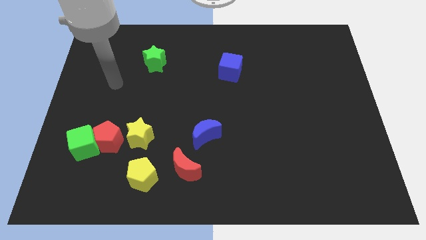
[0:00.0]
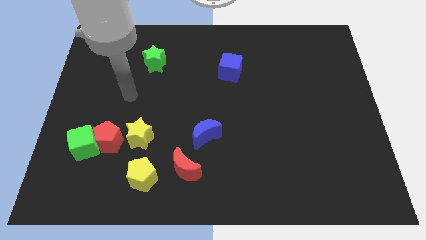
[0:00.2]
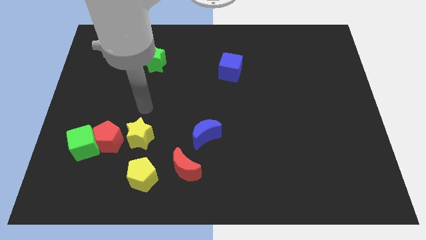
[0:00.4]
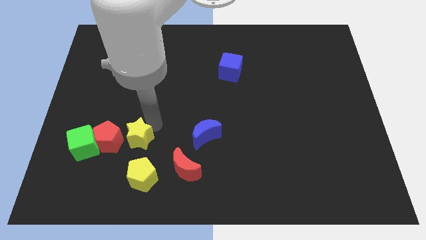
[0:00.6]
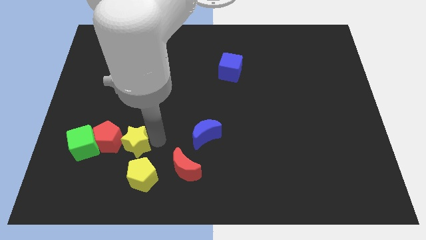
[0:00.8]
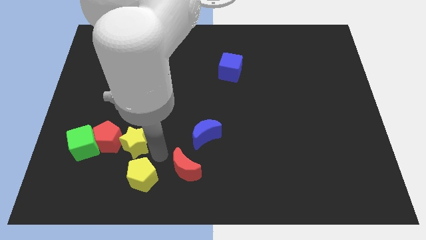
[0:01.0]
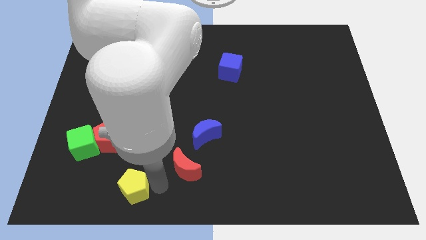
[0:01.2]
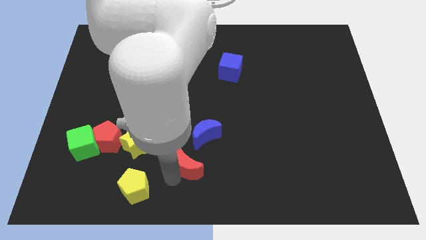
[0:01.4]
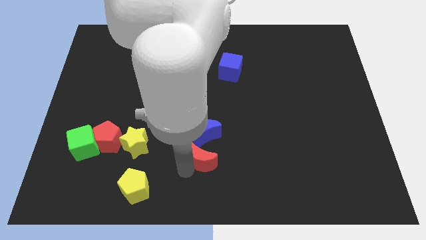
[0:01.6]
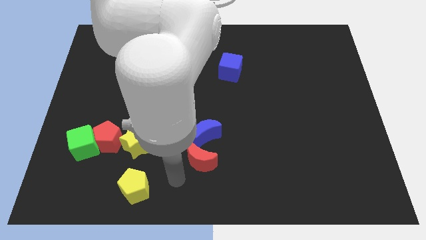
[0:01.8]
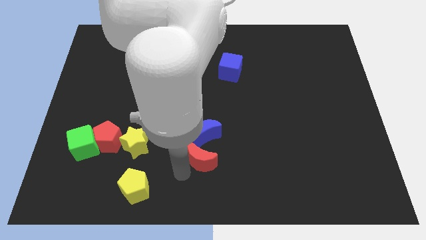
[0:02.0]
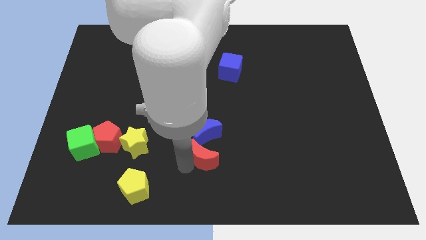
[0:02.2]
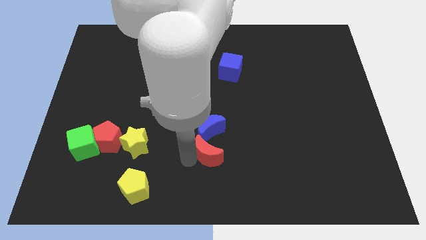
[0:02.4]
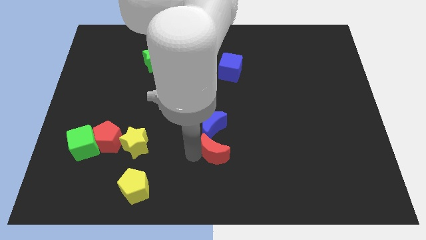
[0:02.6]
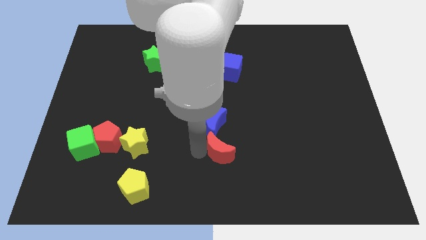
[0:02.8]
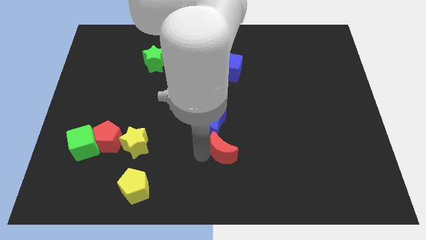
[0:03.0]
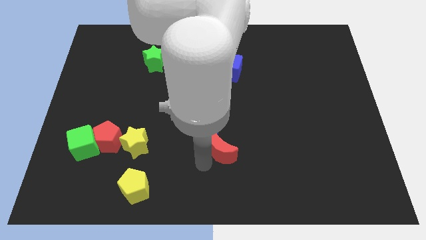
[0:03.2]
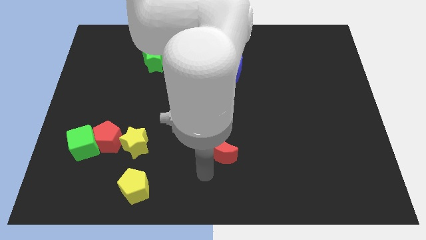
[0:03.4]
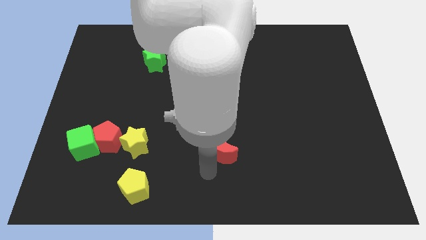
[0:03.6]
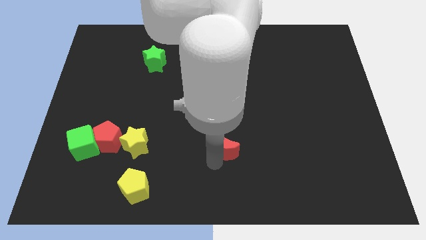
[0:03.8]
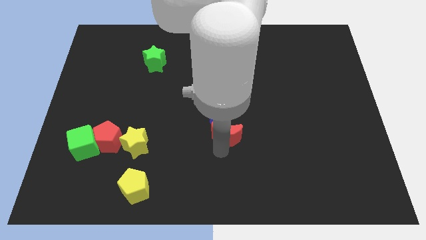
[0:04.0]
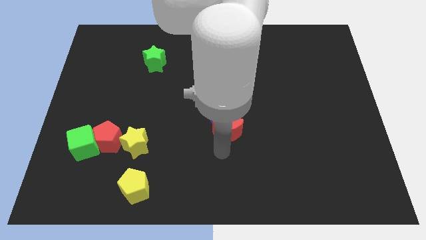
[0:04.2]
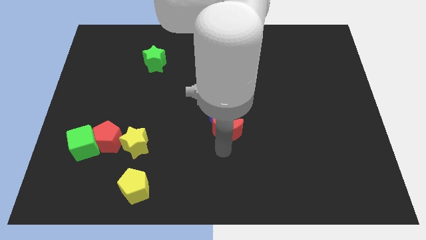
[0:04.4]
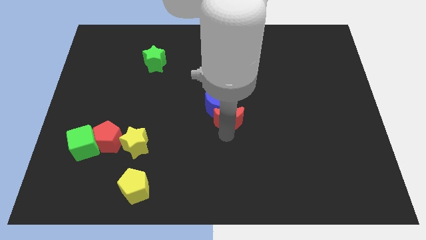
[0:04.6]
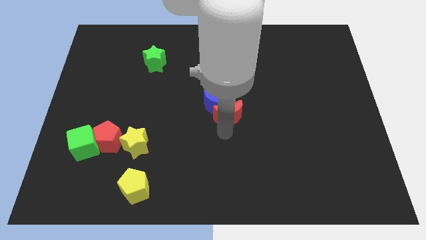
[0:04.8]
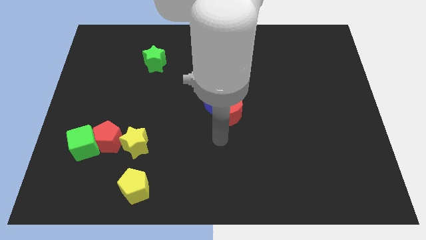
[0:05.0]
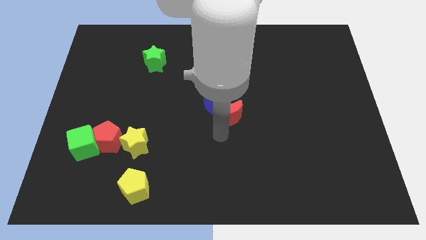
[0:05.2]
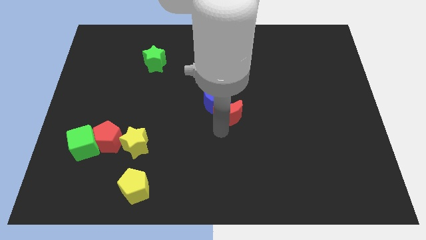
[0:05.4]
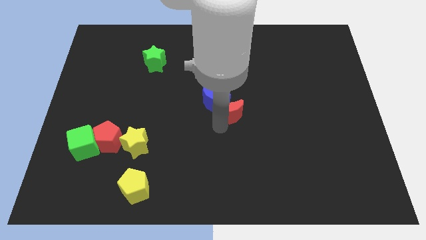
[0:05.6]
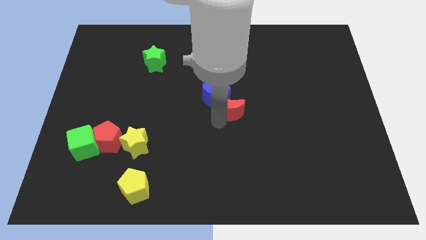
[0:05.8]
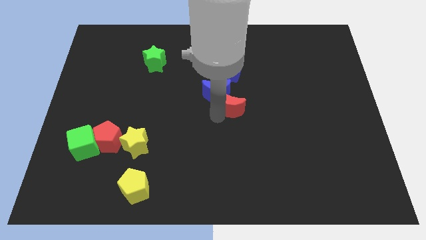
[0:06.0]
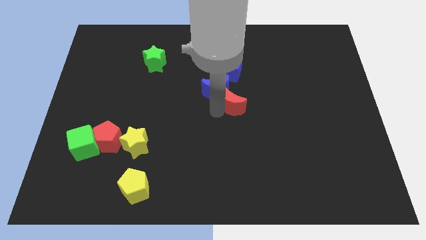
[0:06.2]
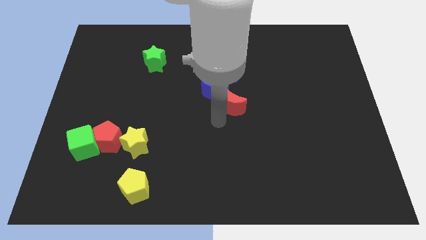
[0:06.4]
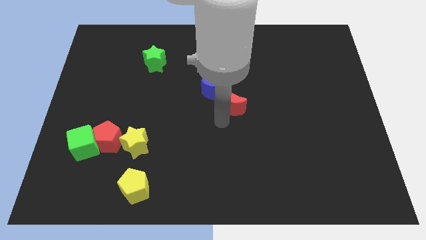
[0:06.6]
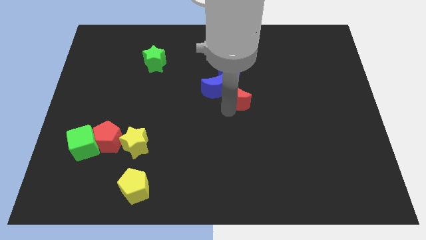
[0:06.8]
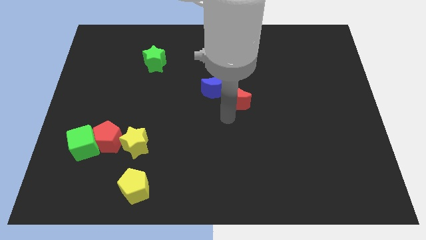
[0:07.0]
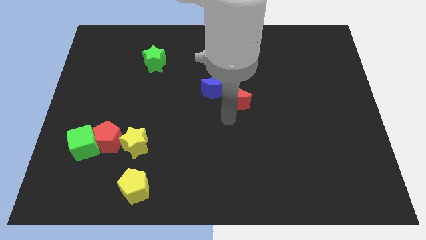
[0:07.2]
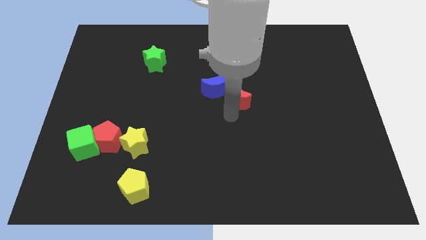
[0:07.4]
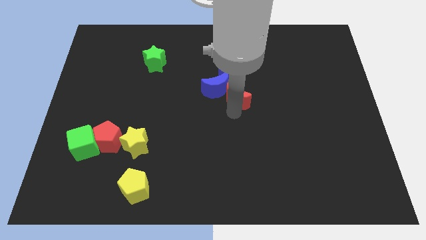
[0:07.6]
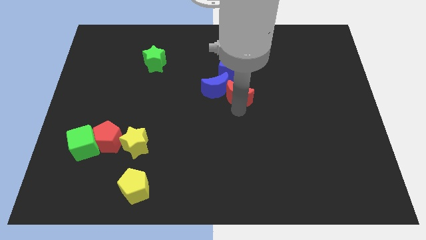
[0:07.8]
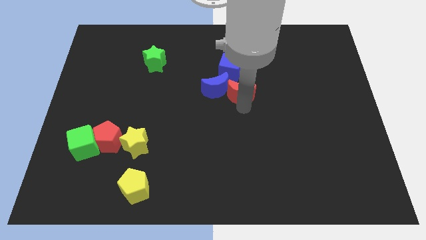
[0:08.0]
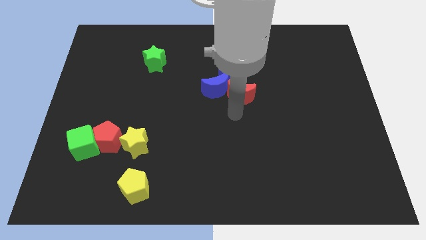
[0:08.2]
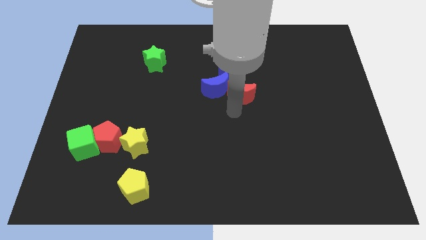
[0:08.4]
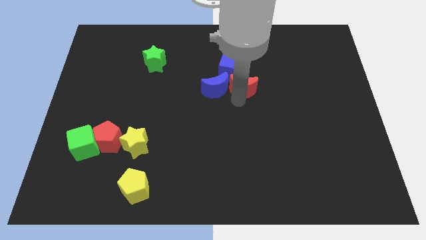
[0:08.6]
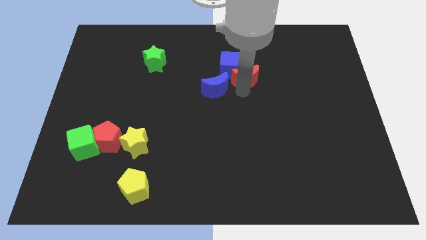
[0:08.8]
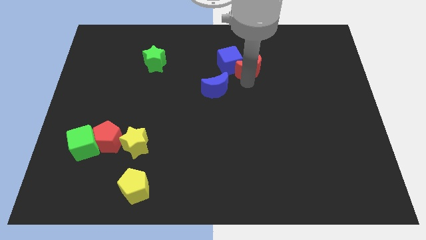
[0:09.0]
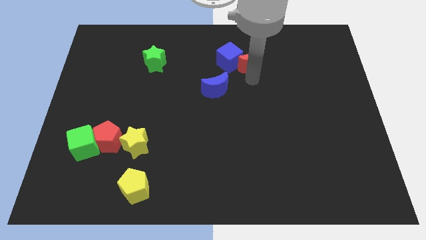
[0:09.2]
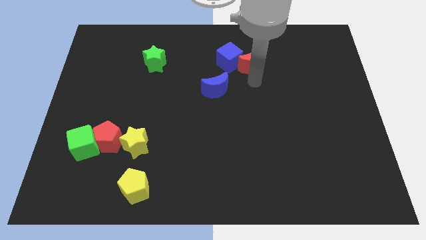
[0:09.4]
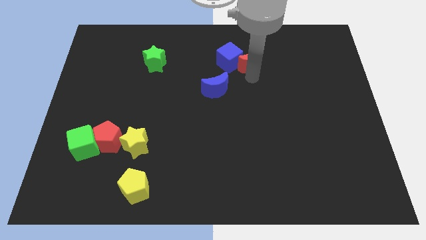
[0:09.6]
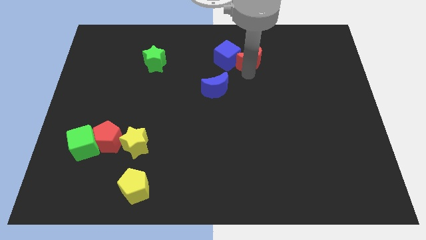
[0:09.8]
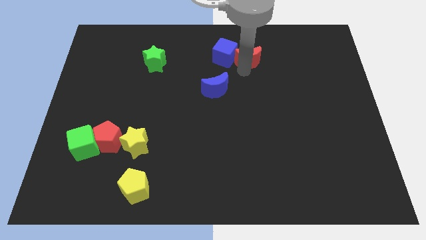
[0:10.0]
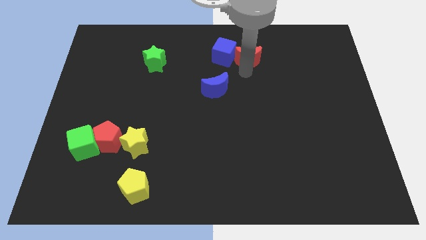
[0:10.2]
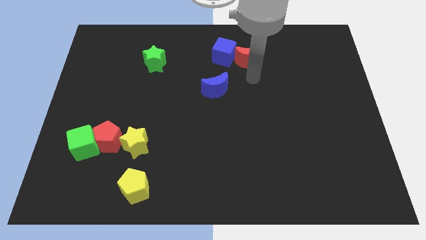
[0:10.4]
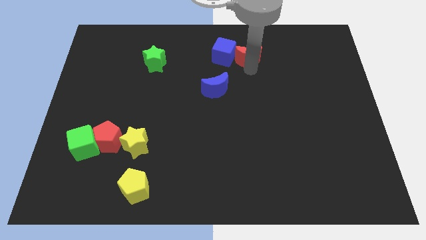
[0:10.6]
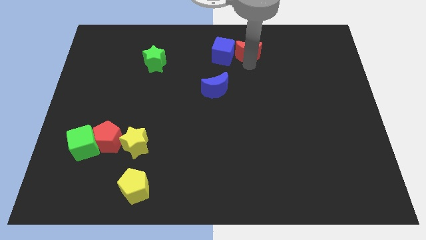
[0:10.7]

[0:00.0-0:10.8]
slide the red moon diagonally up and to the right of the blue cube

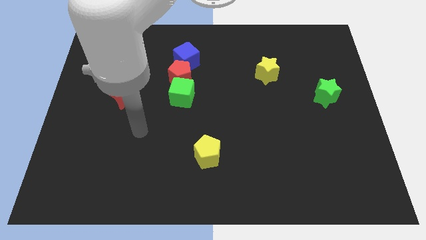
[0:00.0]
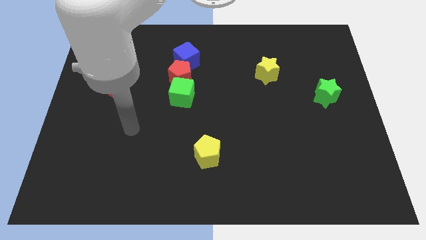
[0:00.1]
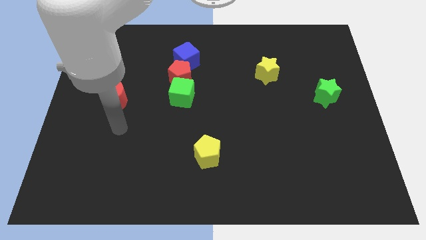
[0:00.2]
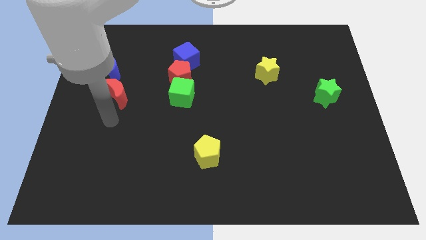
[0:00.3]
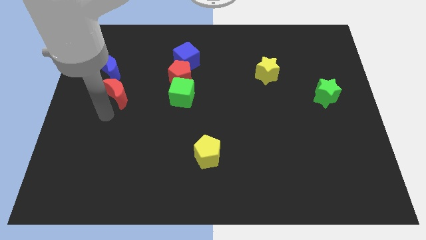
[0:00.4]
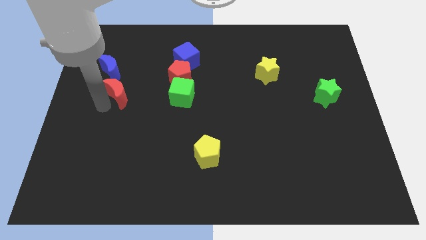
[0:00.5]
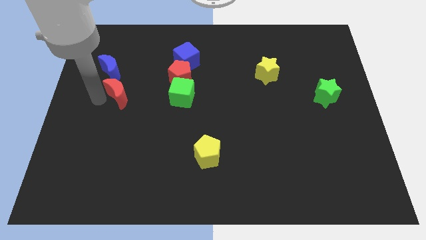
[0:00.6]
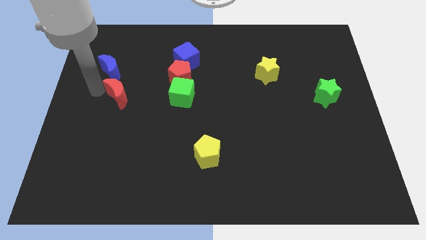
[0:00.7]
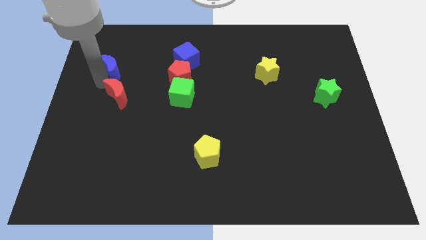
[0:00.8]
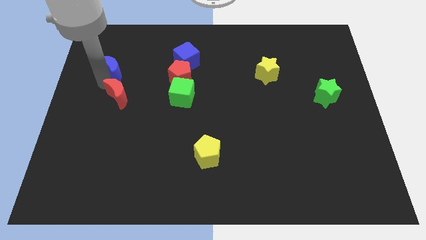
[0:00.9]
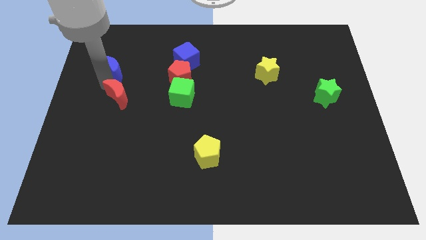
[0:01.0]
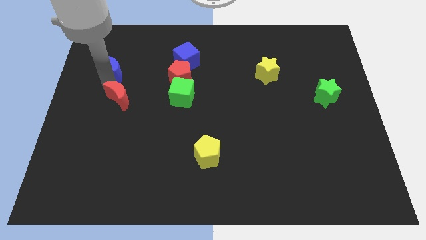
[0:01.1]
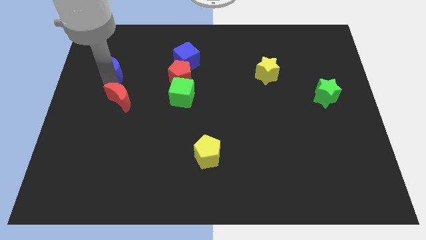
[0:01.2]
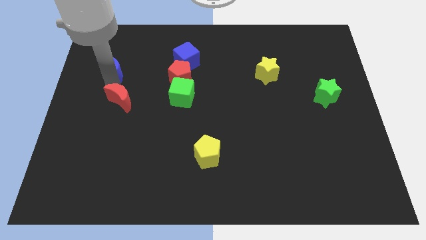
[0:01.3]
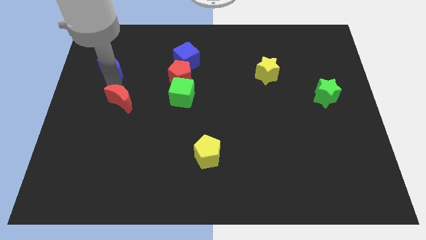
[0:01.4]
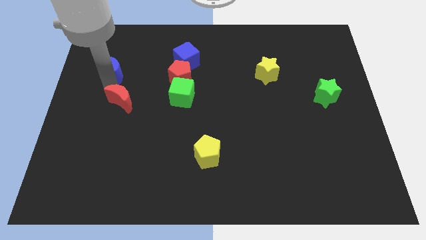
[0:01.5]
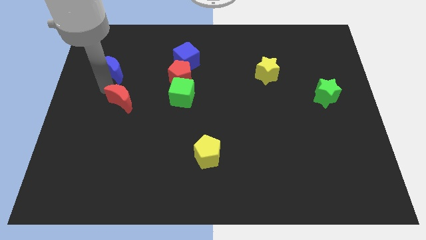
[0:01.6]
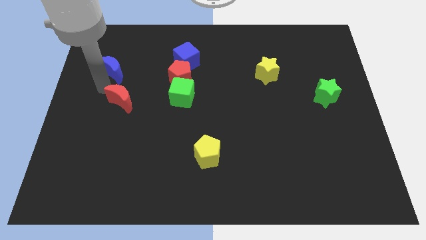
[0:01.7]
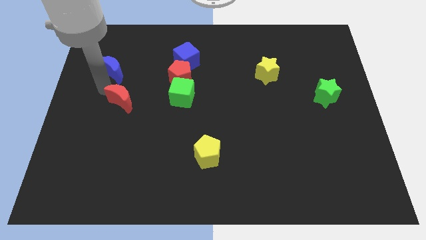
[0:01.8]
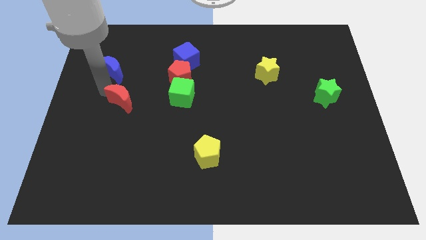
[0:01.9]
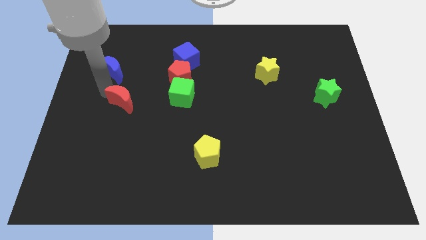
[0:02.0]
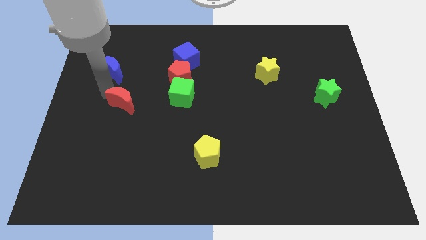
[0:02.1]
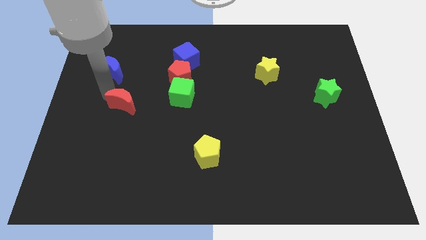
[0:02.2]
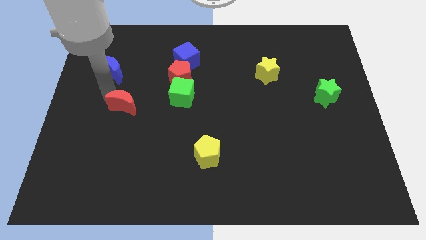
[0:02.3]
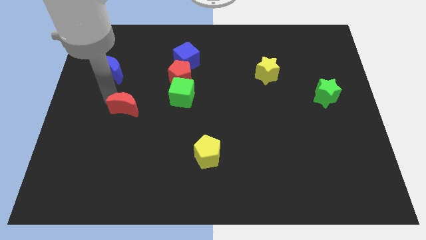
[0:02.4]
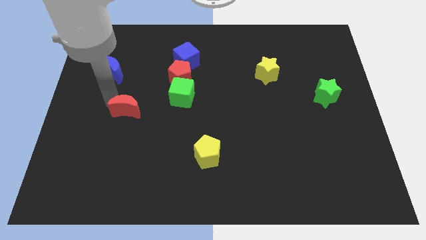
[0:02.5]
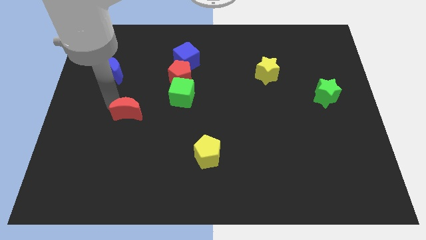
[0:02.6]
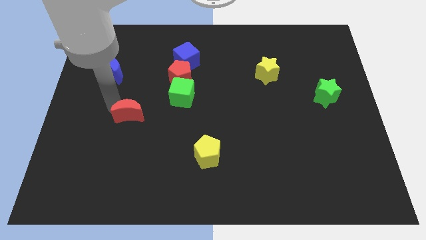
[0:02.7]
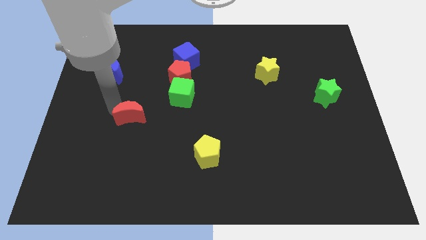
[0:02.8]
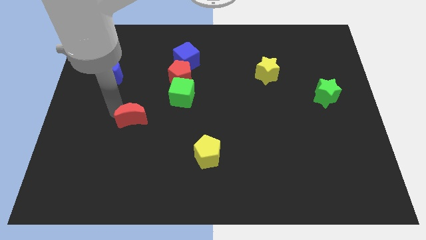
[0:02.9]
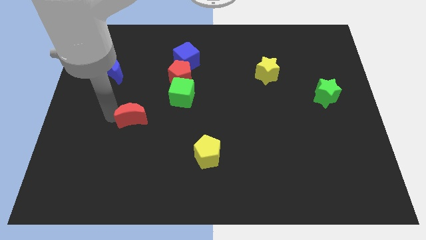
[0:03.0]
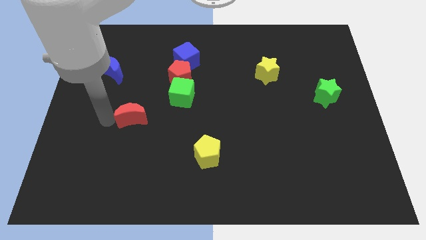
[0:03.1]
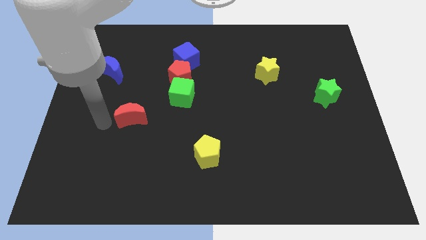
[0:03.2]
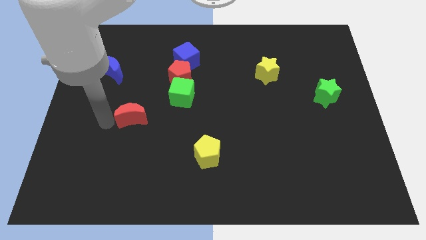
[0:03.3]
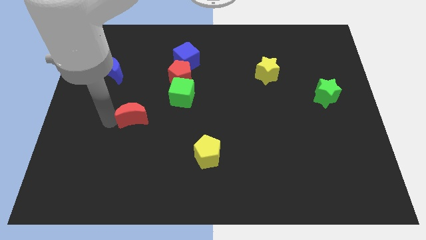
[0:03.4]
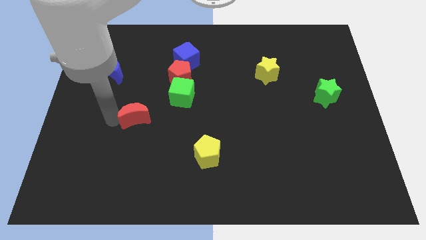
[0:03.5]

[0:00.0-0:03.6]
slide the red moon to the bottom left side of the green cube
